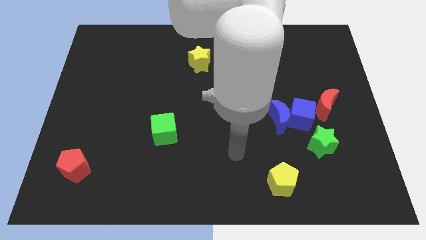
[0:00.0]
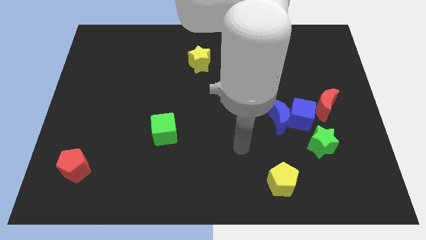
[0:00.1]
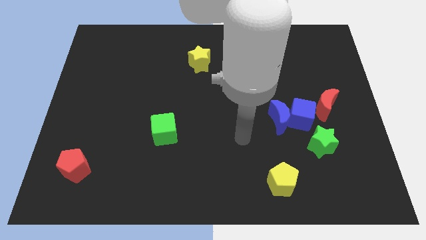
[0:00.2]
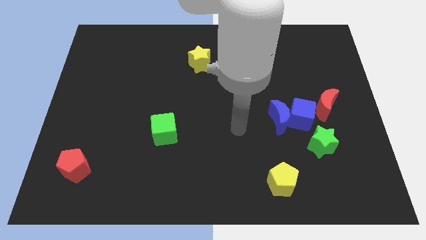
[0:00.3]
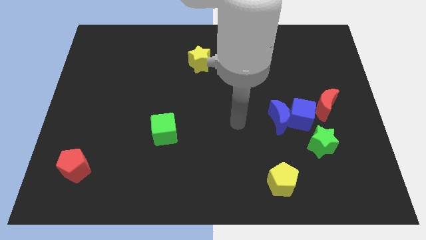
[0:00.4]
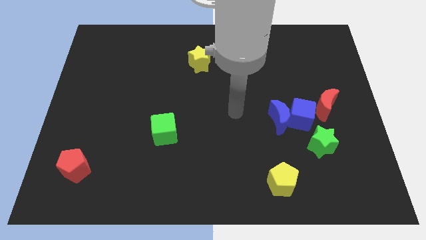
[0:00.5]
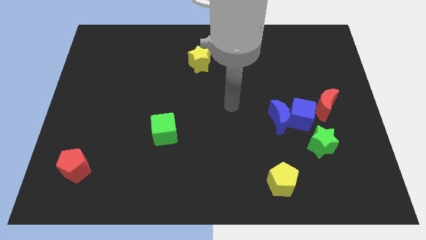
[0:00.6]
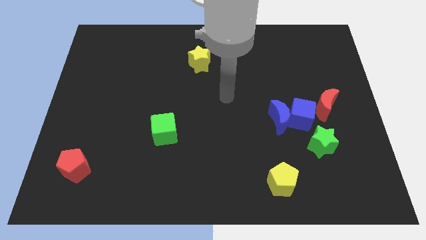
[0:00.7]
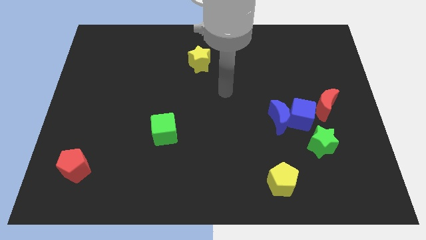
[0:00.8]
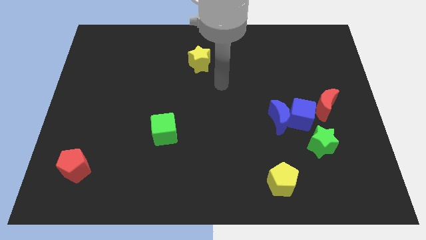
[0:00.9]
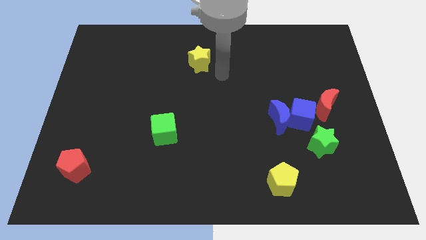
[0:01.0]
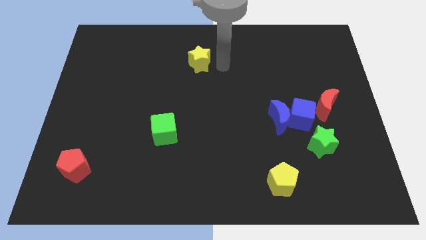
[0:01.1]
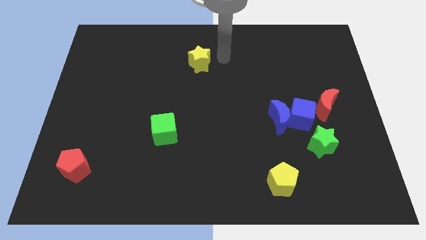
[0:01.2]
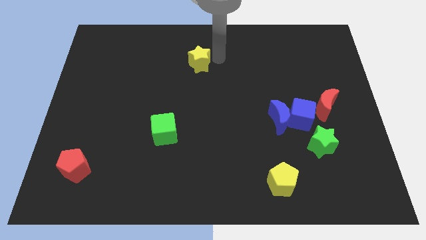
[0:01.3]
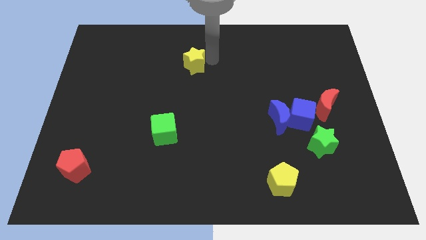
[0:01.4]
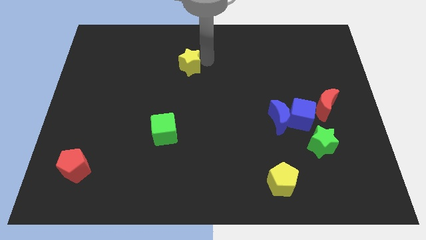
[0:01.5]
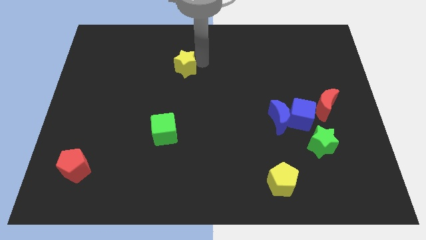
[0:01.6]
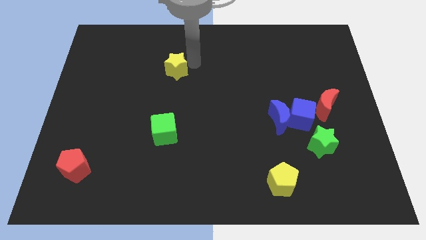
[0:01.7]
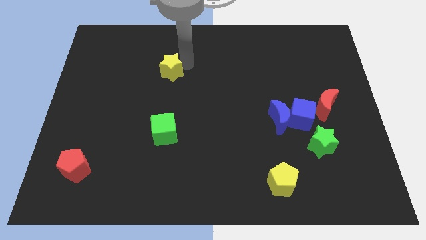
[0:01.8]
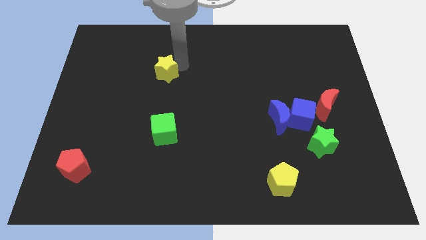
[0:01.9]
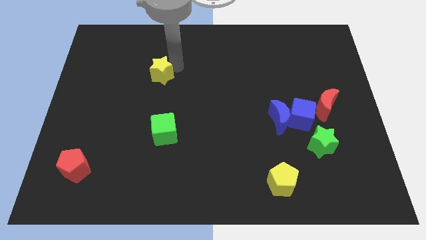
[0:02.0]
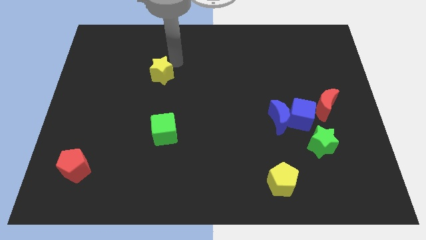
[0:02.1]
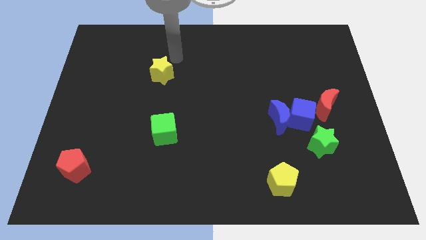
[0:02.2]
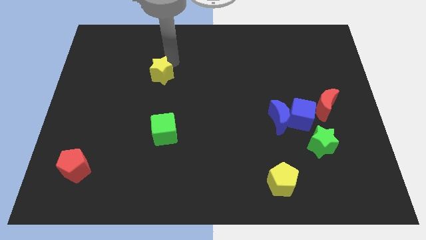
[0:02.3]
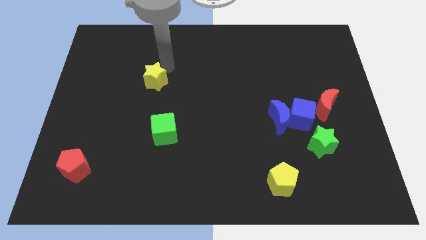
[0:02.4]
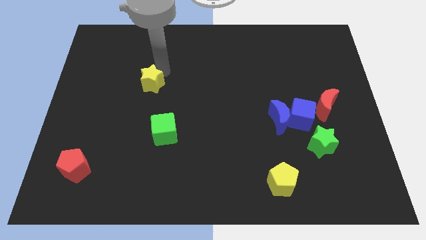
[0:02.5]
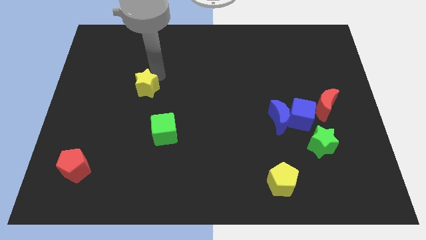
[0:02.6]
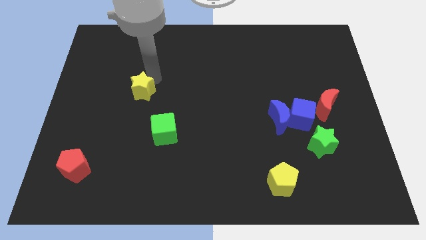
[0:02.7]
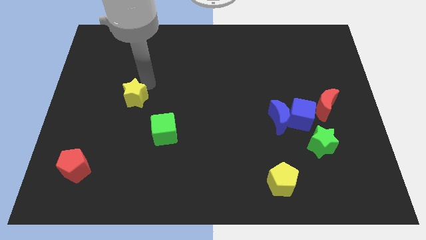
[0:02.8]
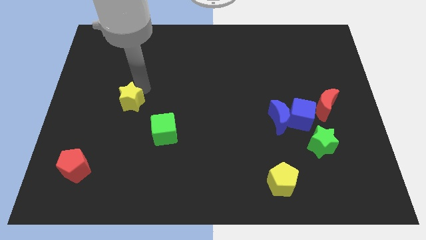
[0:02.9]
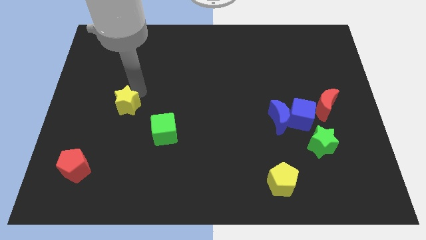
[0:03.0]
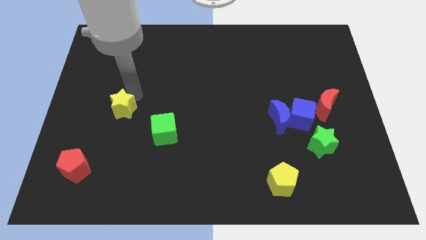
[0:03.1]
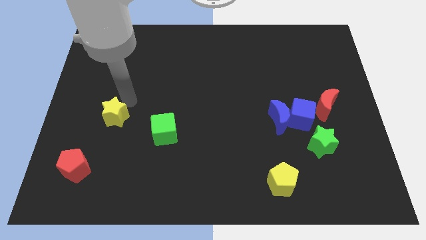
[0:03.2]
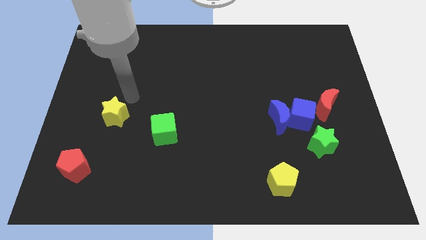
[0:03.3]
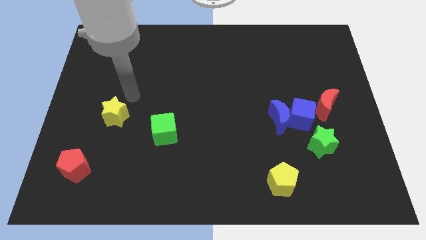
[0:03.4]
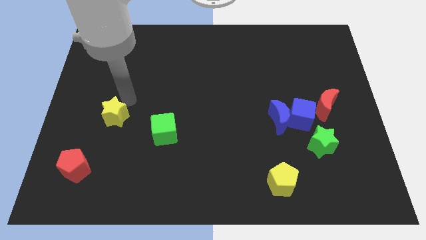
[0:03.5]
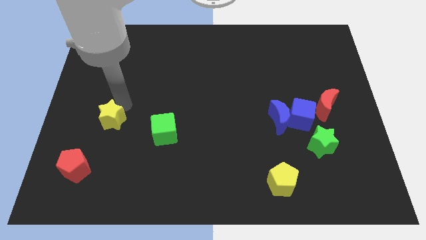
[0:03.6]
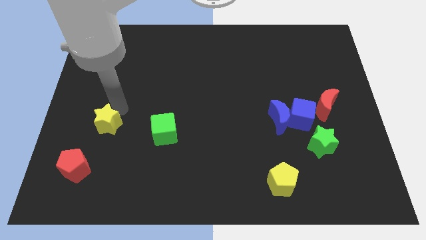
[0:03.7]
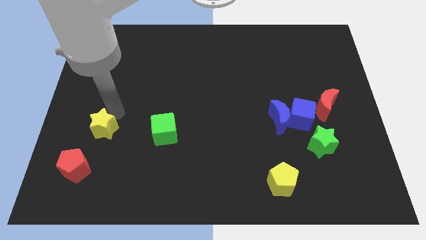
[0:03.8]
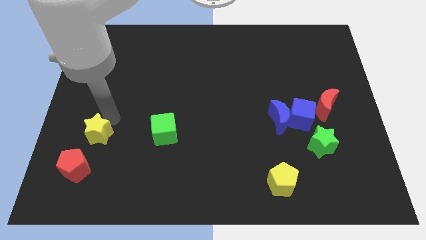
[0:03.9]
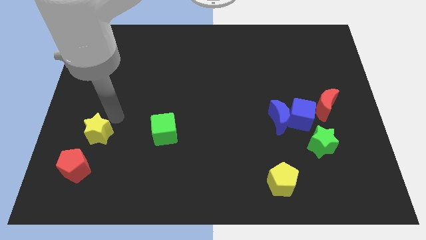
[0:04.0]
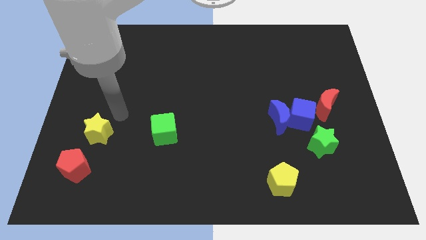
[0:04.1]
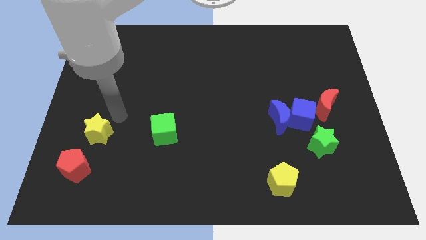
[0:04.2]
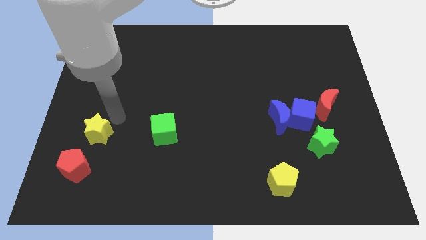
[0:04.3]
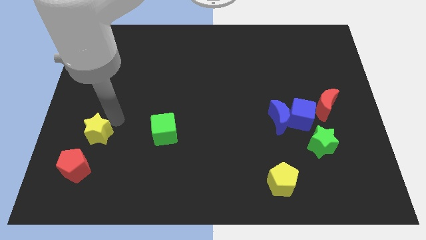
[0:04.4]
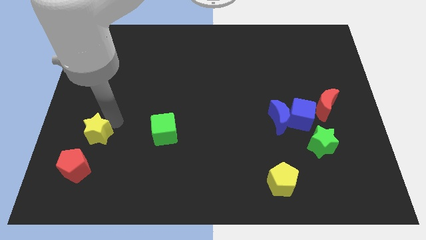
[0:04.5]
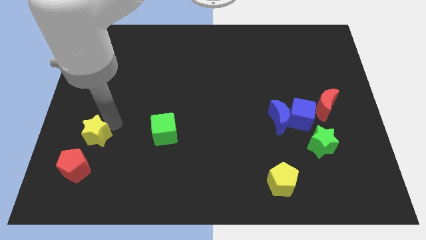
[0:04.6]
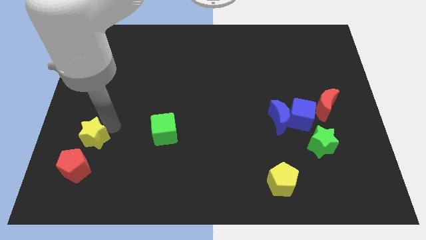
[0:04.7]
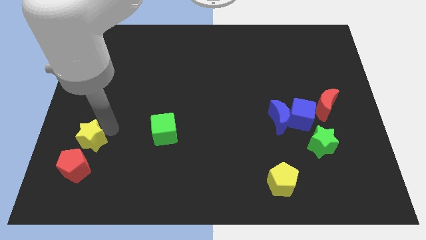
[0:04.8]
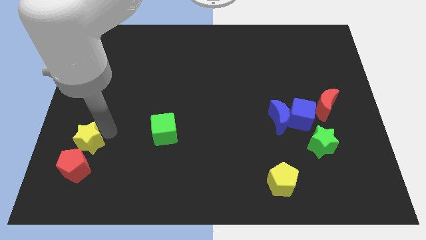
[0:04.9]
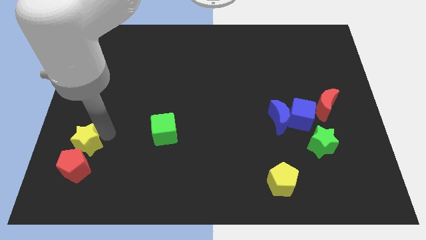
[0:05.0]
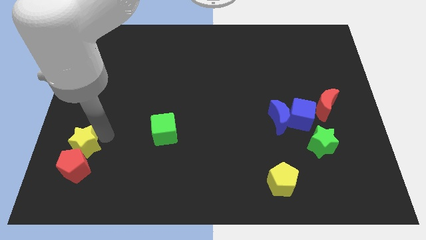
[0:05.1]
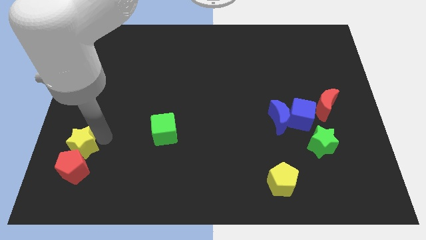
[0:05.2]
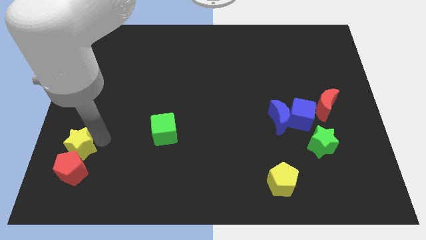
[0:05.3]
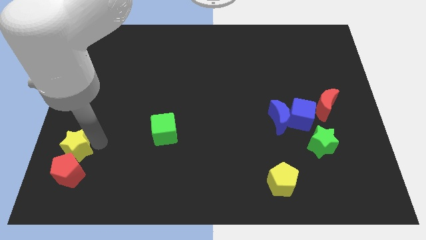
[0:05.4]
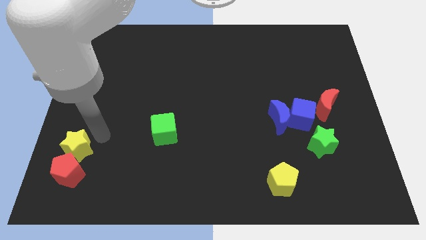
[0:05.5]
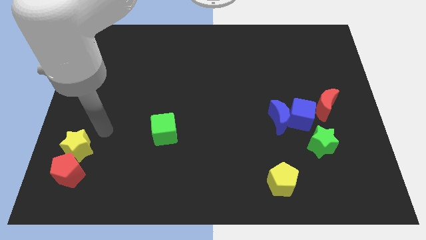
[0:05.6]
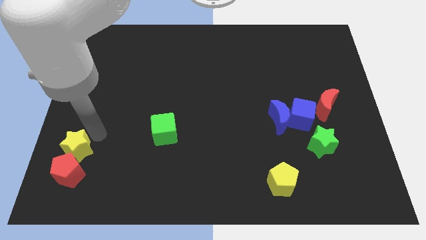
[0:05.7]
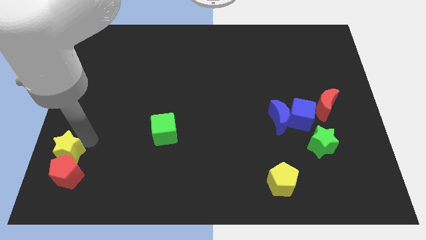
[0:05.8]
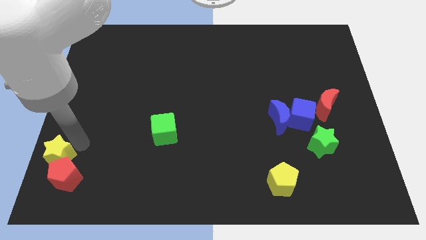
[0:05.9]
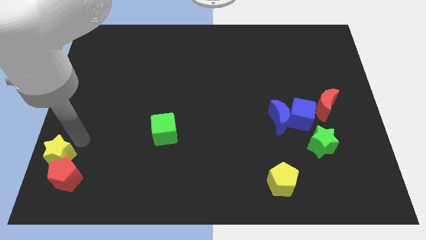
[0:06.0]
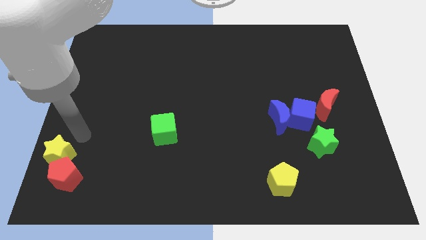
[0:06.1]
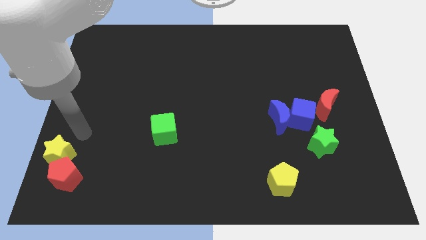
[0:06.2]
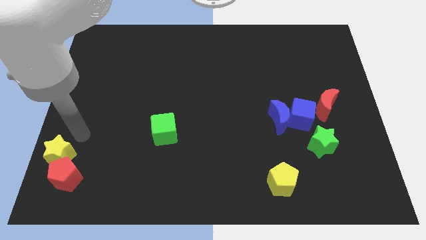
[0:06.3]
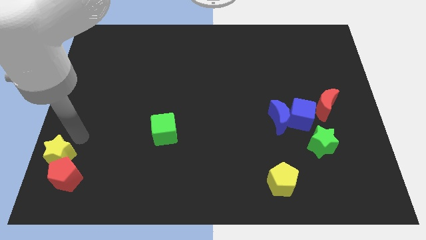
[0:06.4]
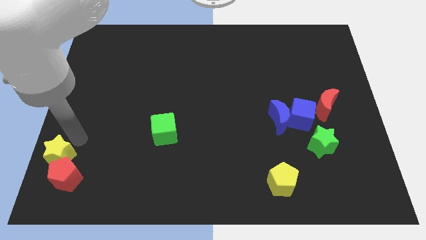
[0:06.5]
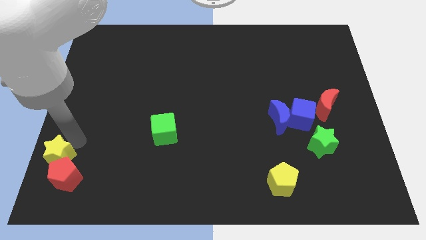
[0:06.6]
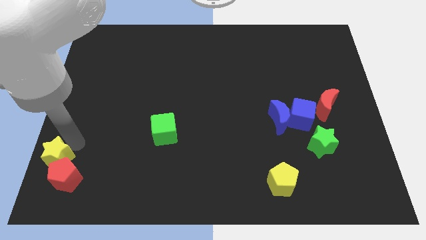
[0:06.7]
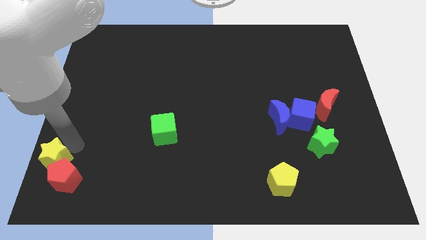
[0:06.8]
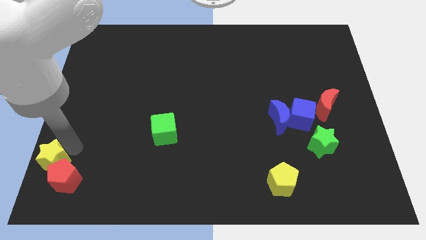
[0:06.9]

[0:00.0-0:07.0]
put the yellow star to the bottom left
